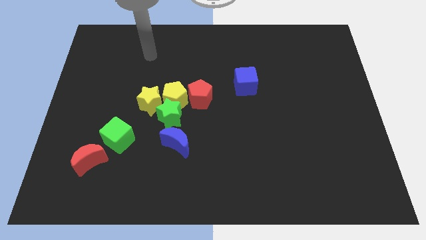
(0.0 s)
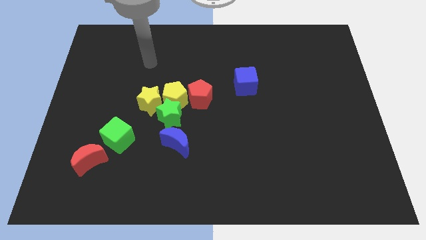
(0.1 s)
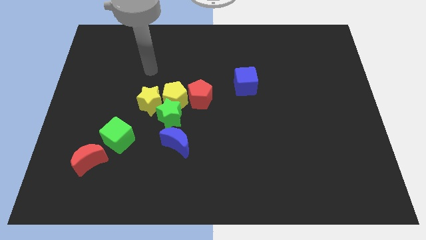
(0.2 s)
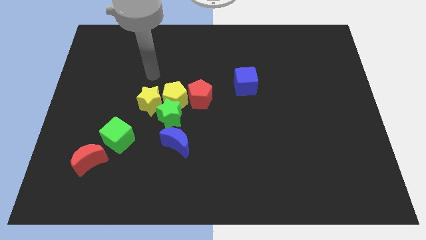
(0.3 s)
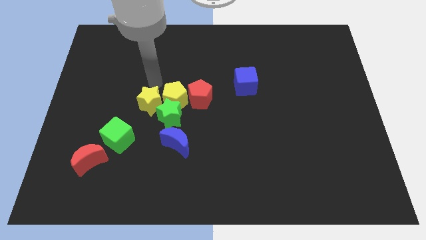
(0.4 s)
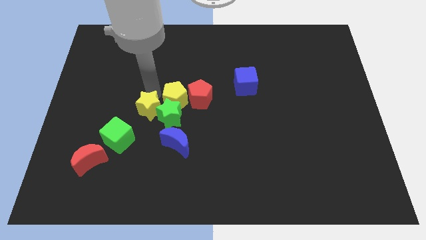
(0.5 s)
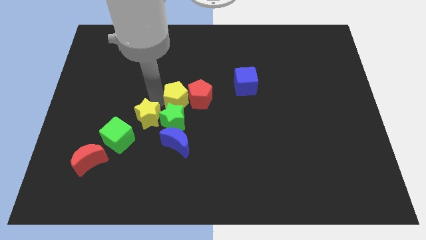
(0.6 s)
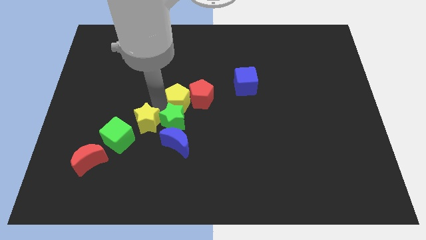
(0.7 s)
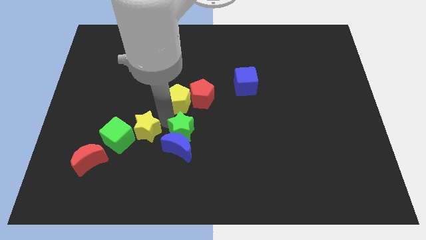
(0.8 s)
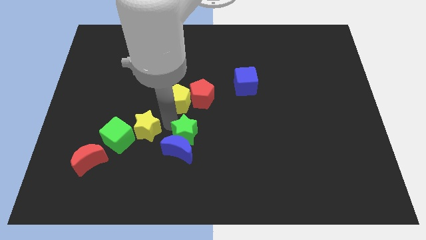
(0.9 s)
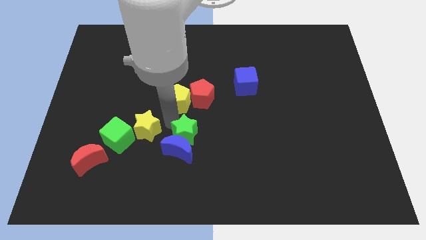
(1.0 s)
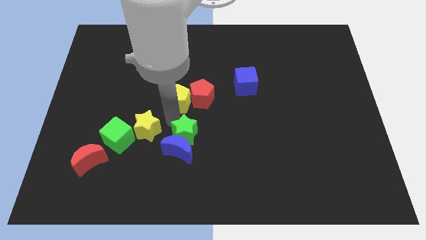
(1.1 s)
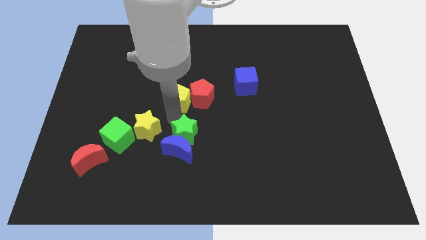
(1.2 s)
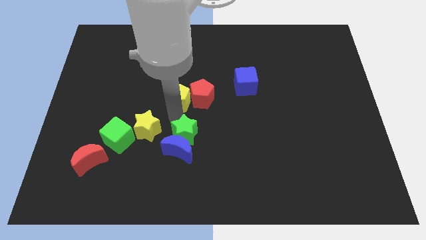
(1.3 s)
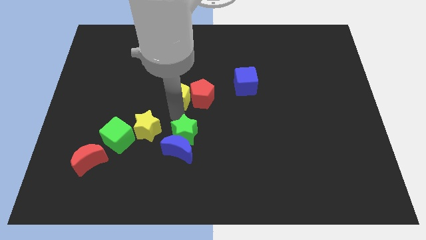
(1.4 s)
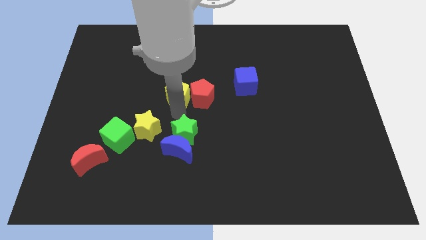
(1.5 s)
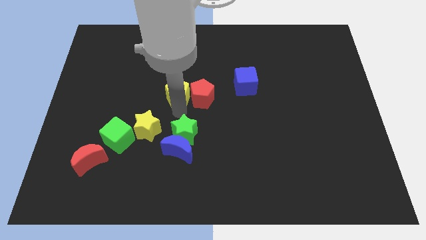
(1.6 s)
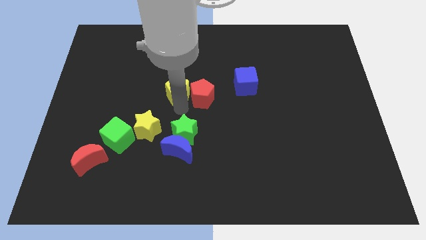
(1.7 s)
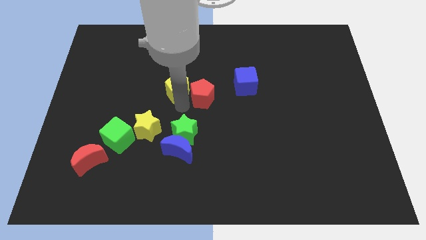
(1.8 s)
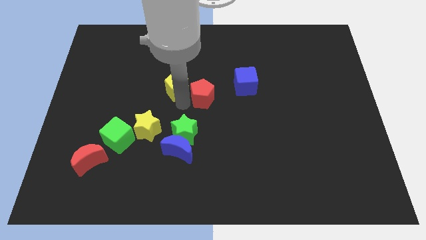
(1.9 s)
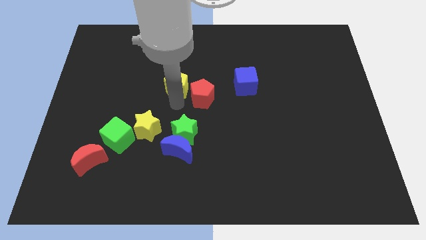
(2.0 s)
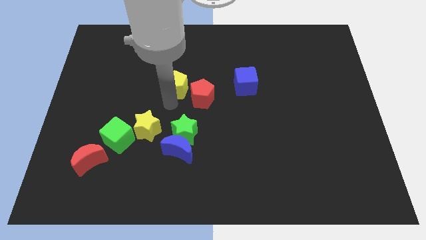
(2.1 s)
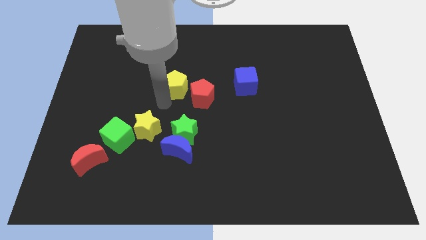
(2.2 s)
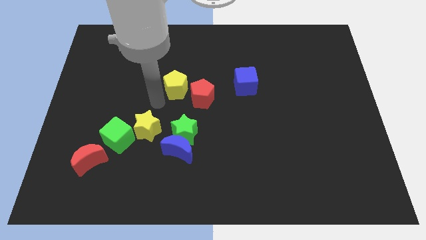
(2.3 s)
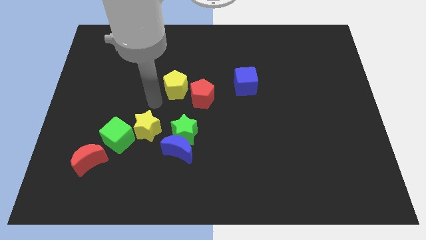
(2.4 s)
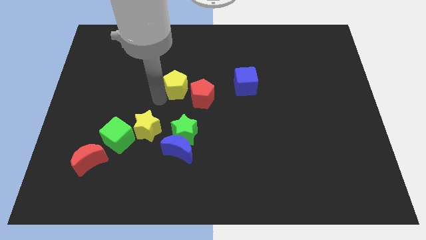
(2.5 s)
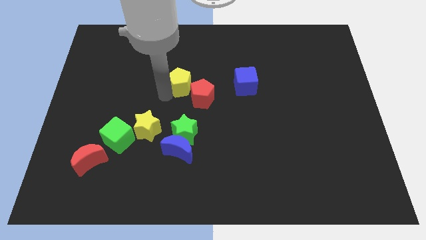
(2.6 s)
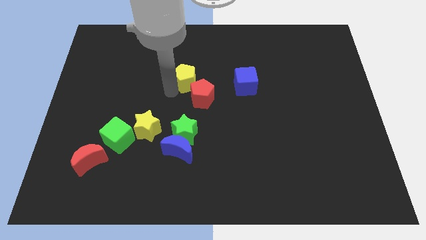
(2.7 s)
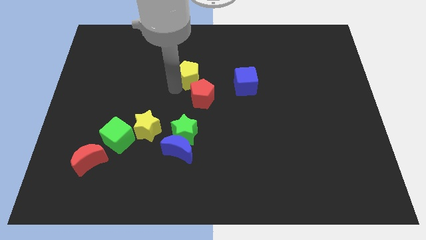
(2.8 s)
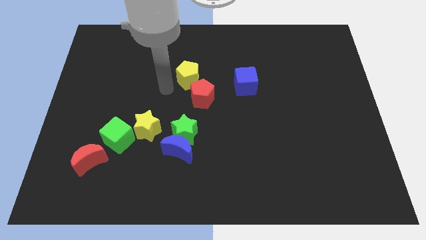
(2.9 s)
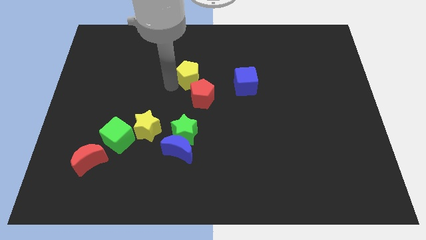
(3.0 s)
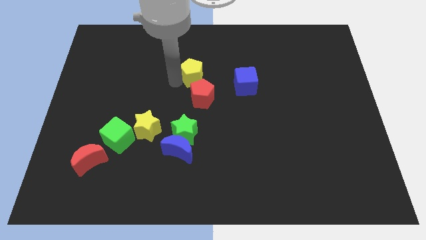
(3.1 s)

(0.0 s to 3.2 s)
slightly slide the yellow pentagon up and to the right diagonally

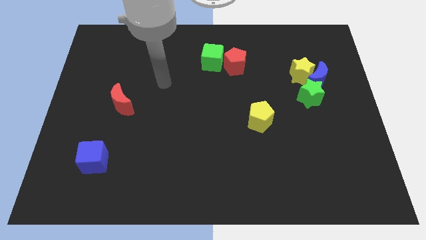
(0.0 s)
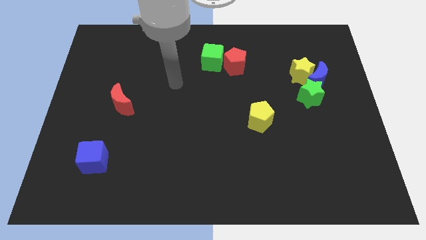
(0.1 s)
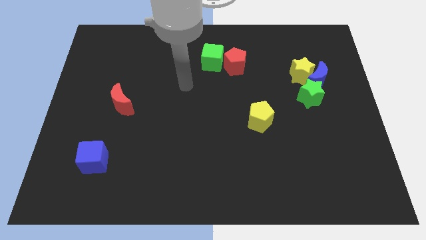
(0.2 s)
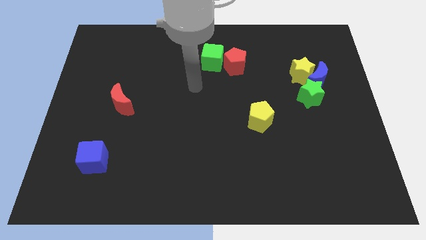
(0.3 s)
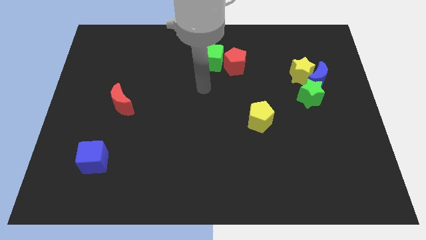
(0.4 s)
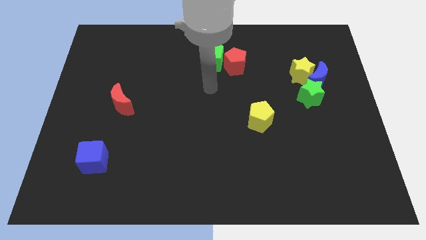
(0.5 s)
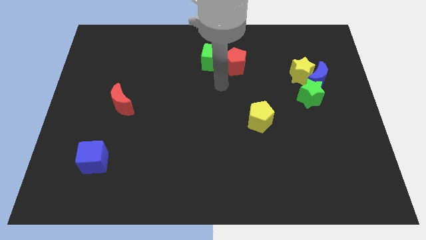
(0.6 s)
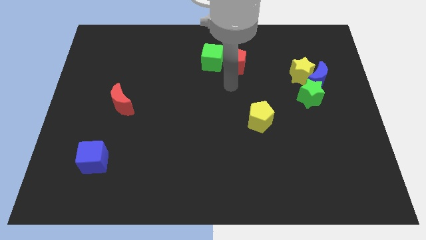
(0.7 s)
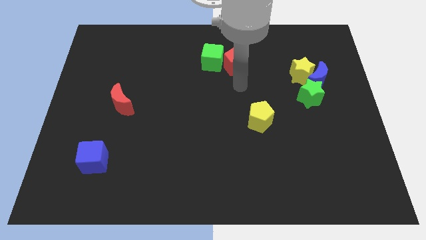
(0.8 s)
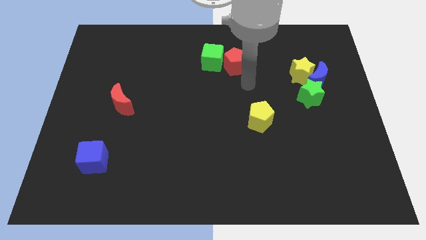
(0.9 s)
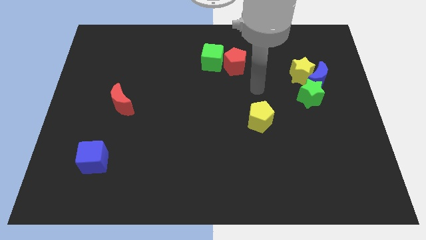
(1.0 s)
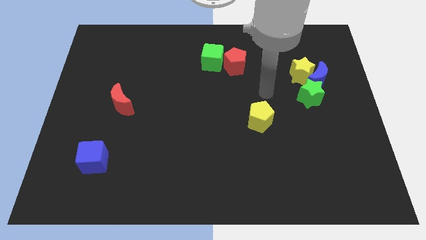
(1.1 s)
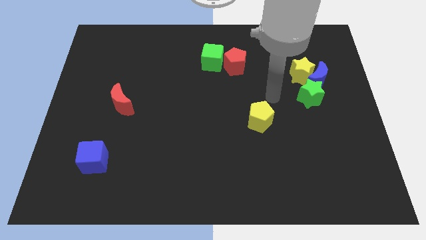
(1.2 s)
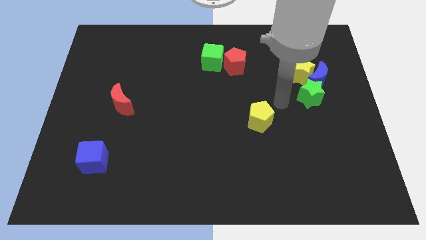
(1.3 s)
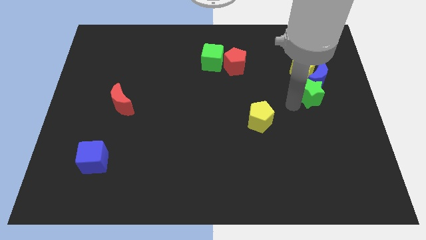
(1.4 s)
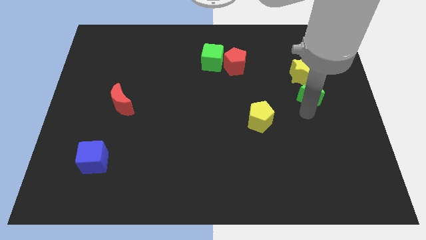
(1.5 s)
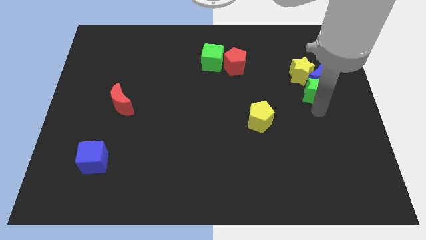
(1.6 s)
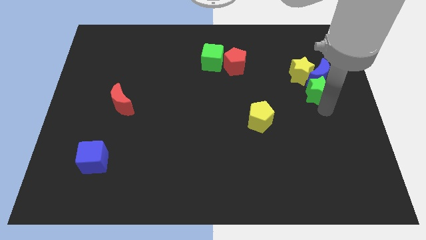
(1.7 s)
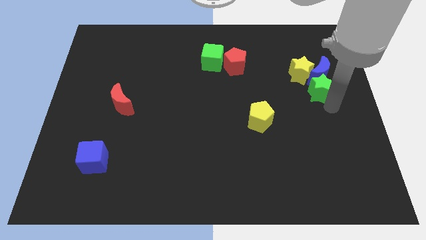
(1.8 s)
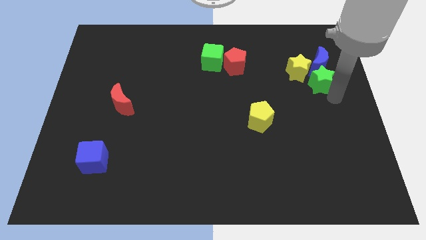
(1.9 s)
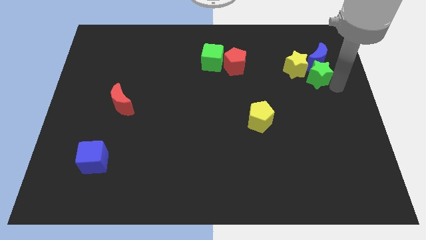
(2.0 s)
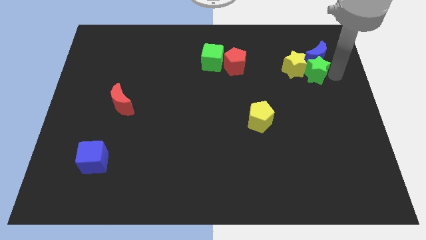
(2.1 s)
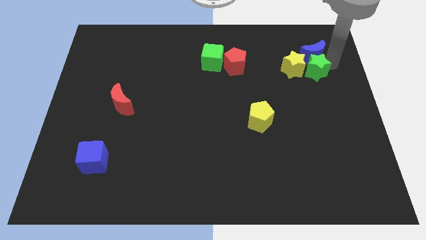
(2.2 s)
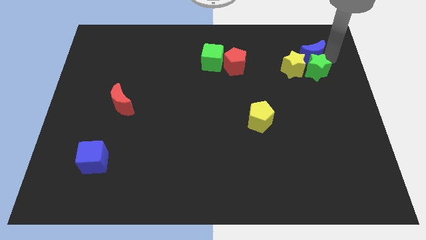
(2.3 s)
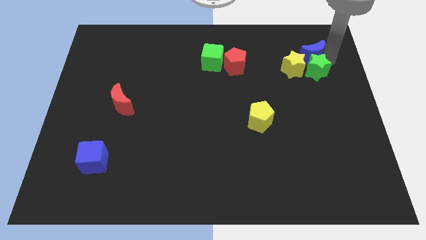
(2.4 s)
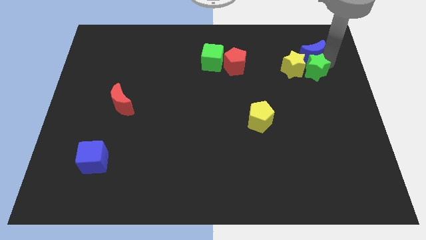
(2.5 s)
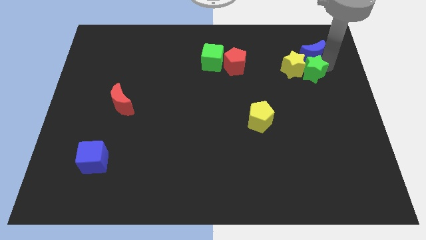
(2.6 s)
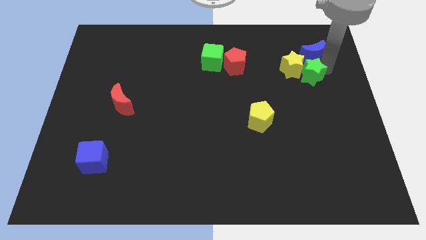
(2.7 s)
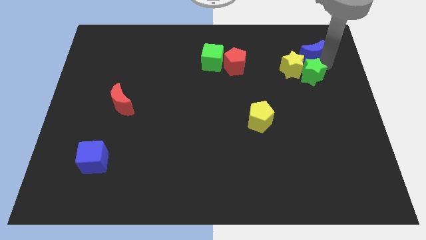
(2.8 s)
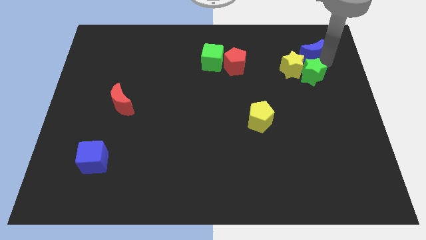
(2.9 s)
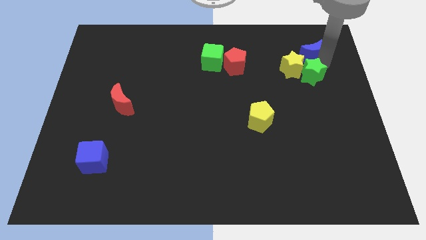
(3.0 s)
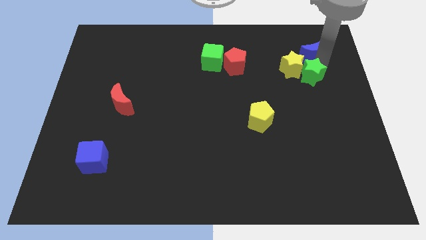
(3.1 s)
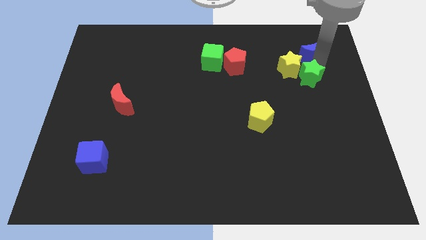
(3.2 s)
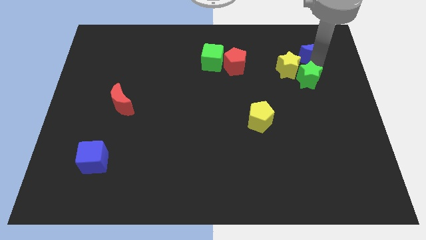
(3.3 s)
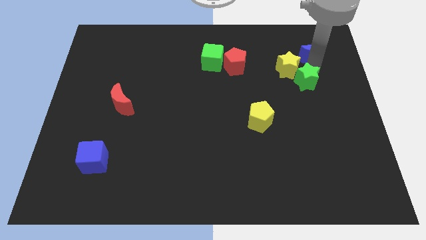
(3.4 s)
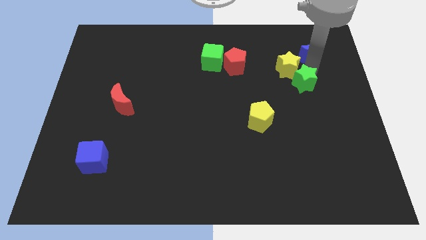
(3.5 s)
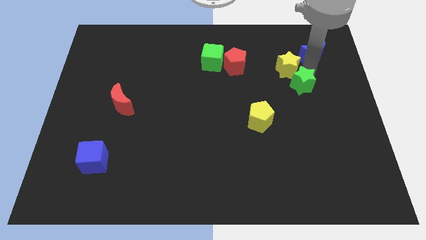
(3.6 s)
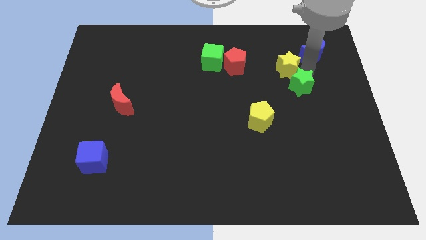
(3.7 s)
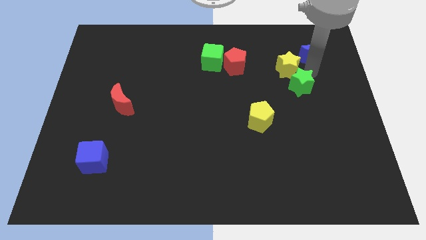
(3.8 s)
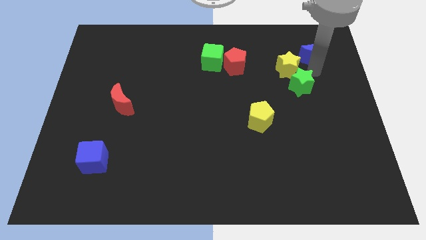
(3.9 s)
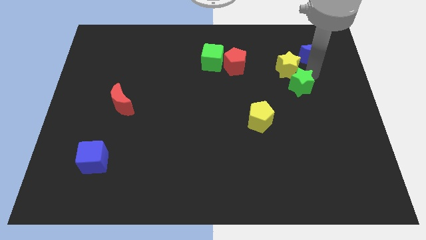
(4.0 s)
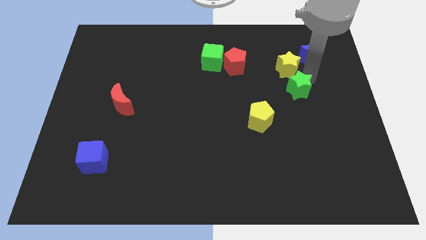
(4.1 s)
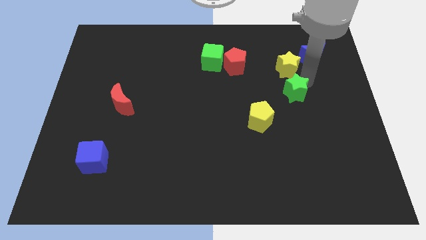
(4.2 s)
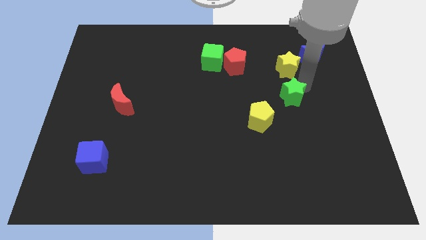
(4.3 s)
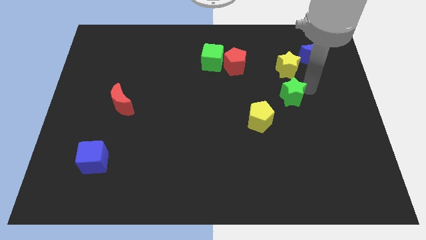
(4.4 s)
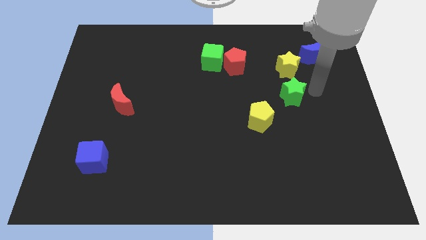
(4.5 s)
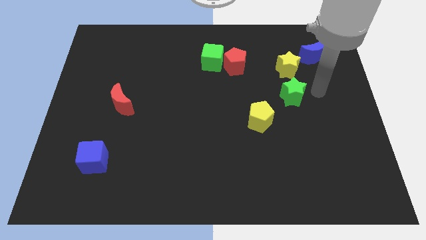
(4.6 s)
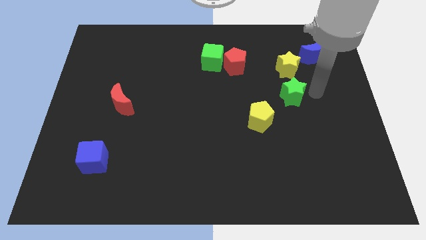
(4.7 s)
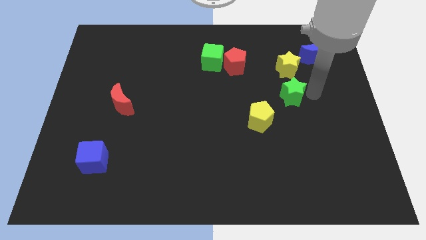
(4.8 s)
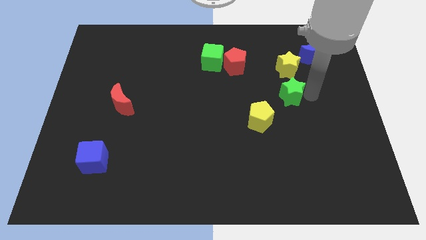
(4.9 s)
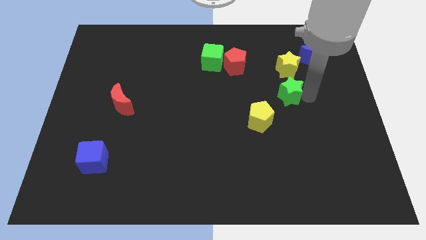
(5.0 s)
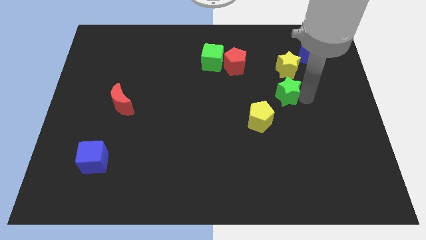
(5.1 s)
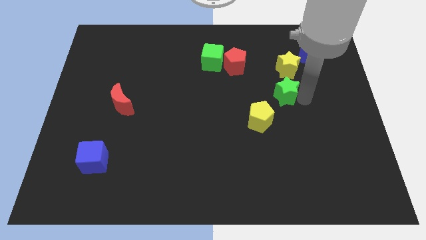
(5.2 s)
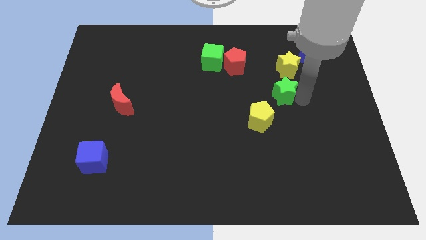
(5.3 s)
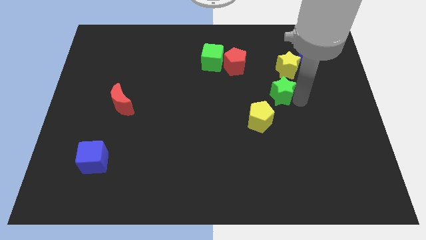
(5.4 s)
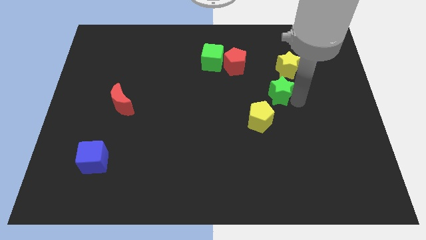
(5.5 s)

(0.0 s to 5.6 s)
push the green star somewhat left
